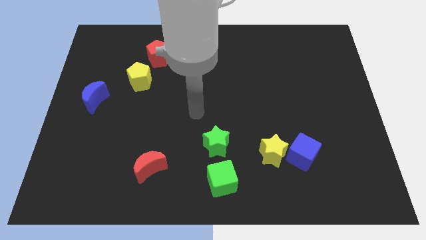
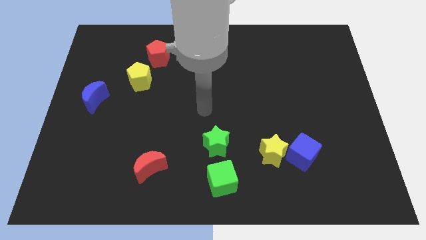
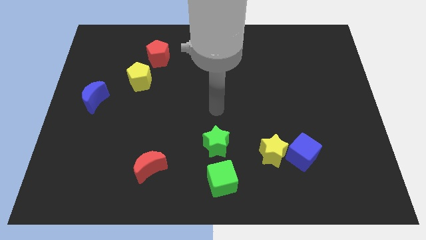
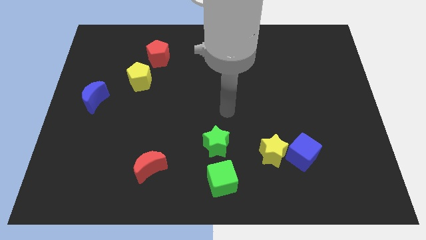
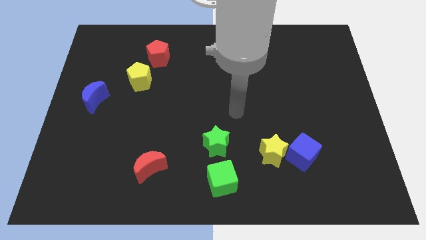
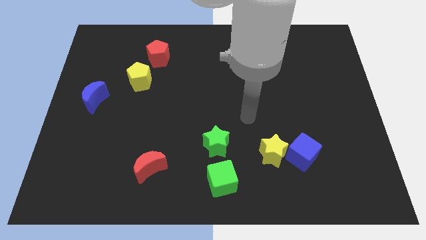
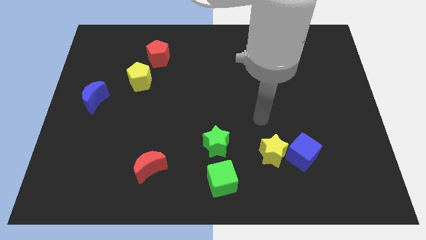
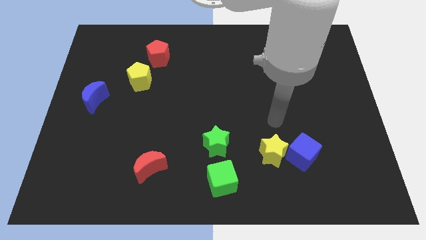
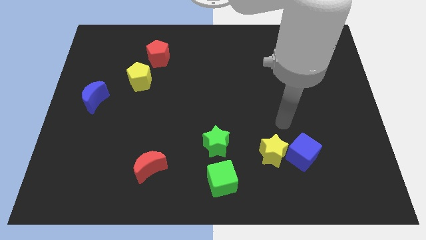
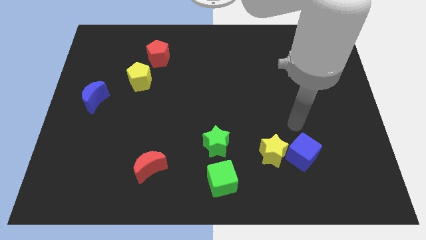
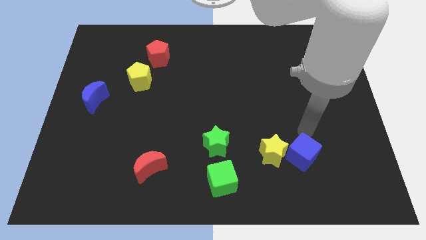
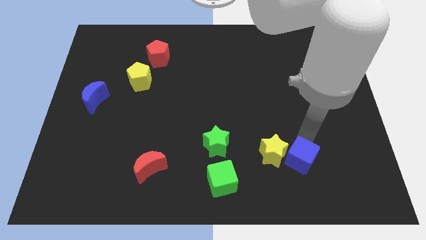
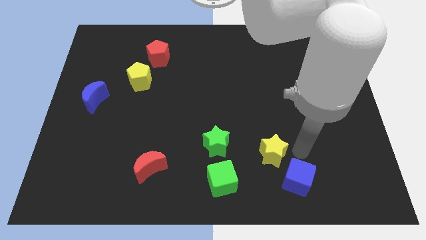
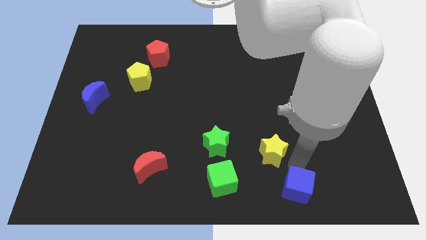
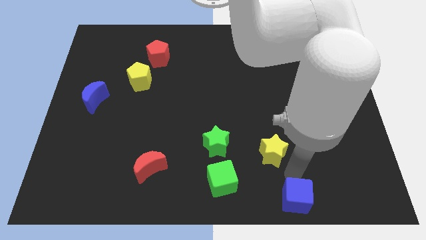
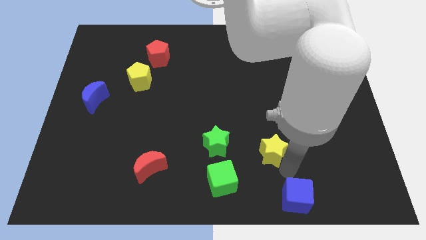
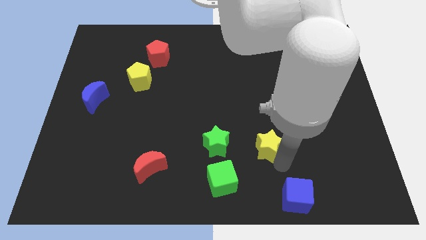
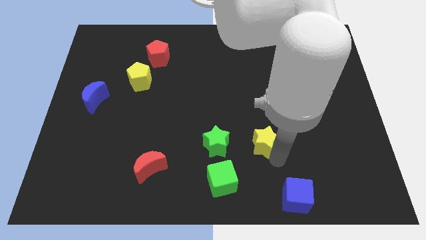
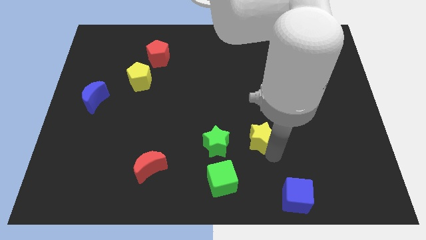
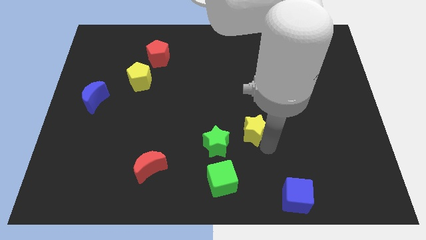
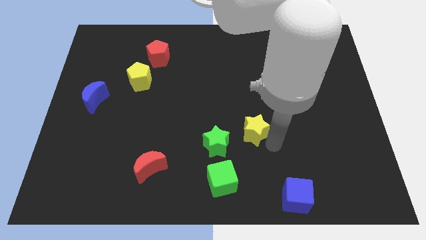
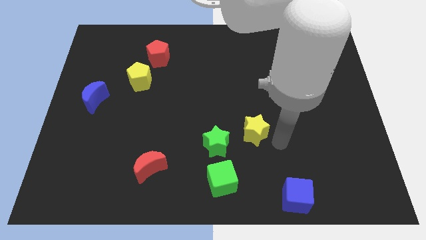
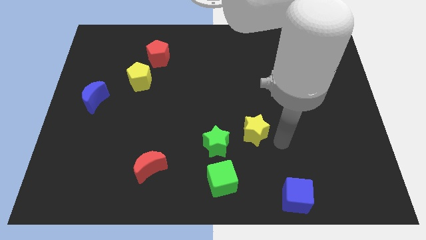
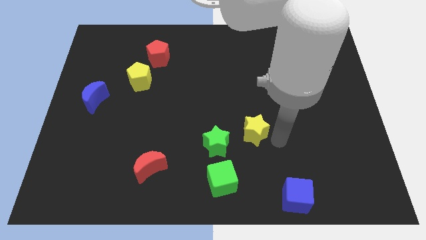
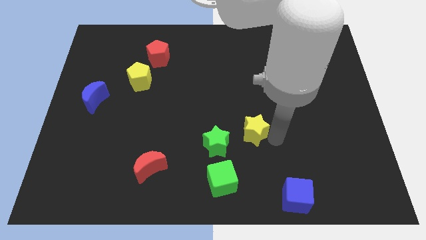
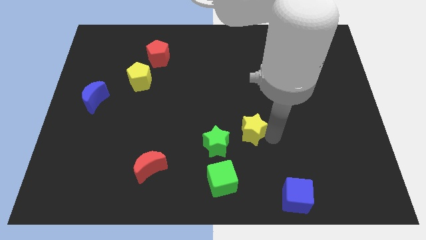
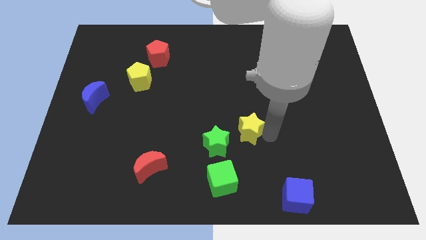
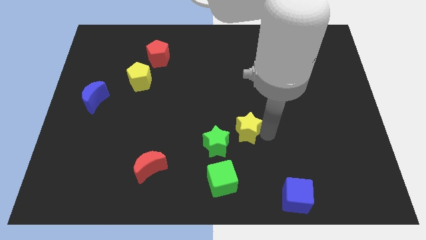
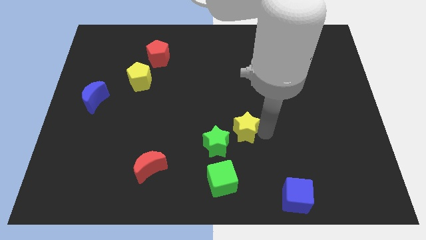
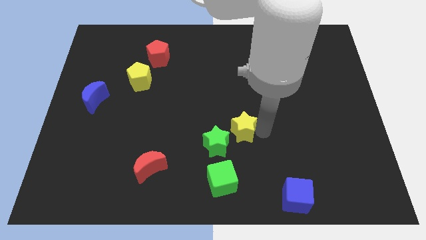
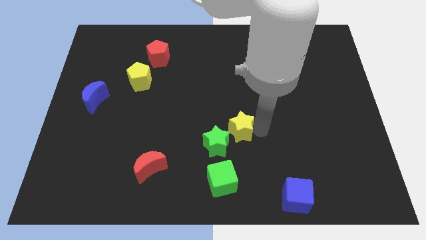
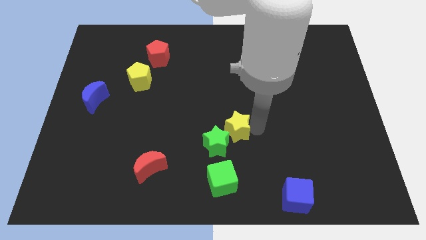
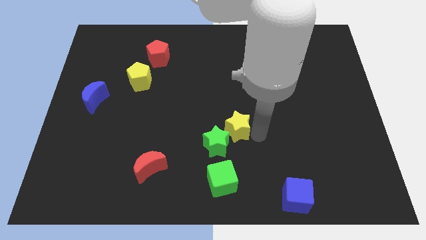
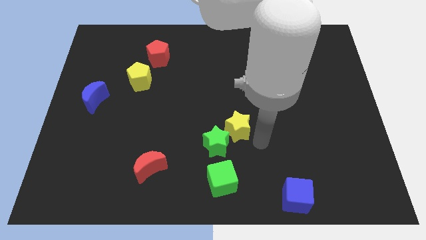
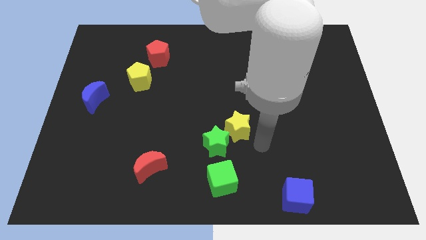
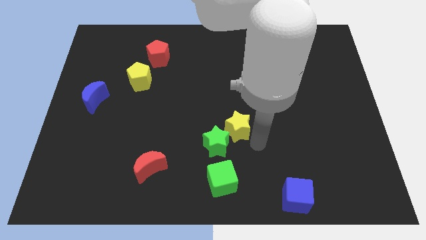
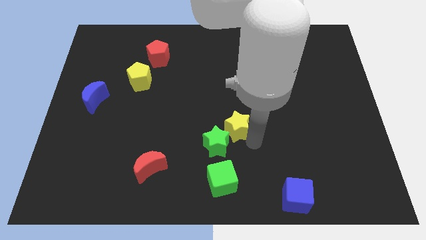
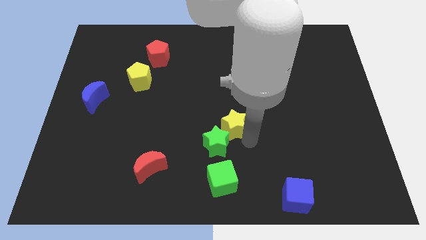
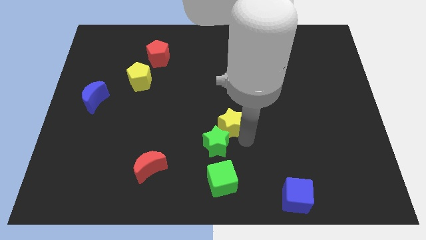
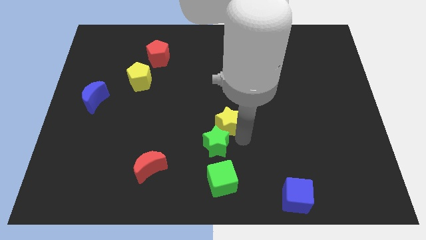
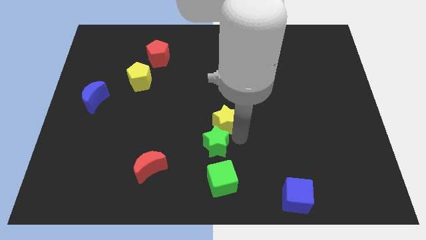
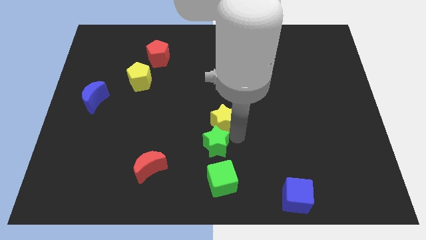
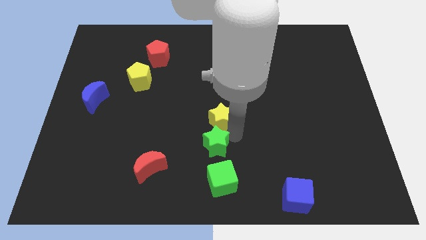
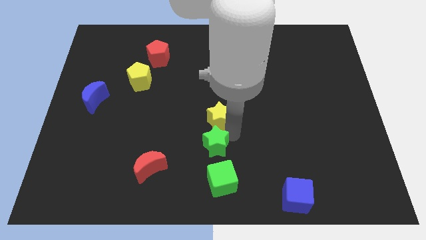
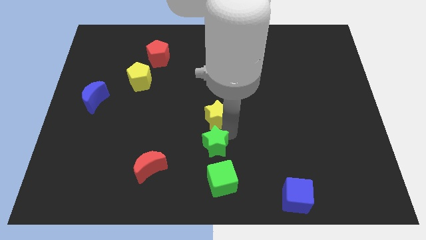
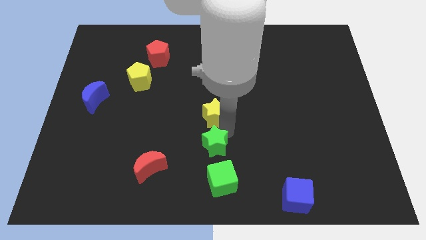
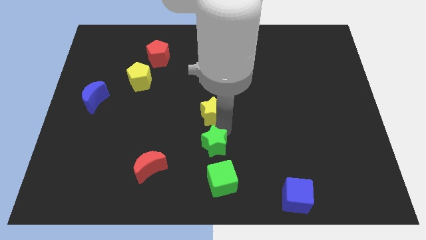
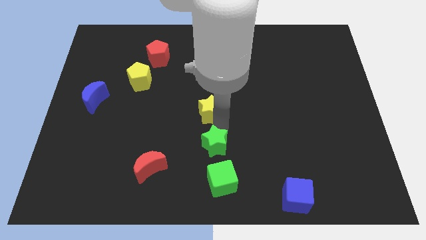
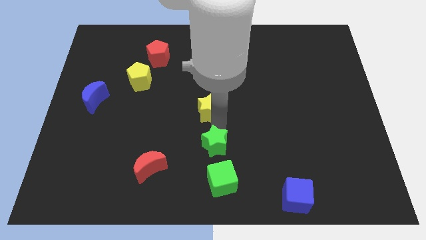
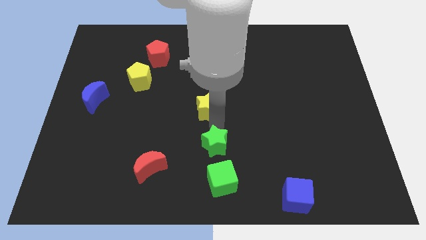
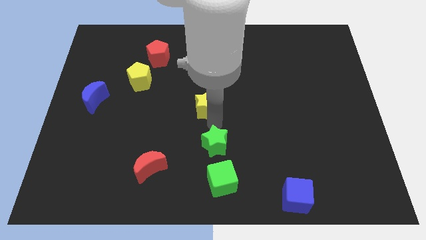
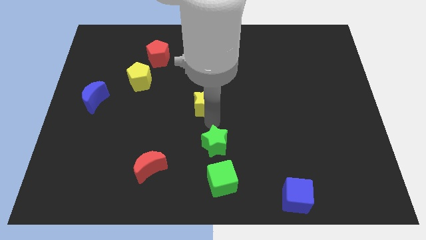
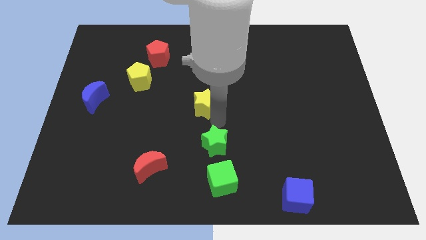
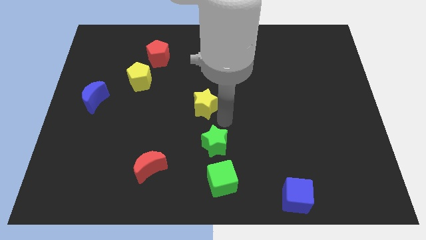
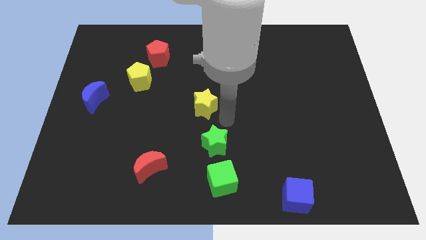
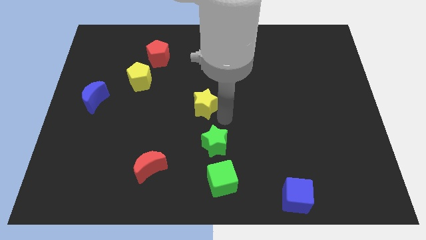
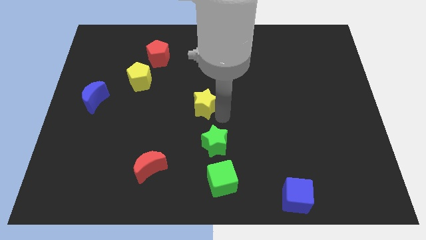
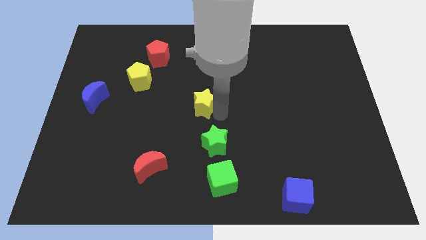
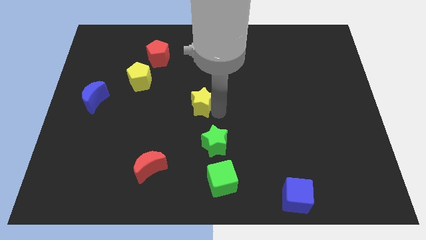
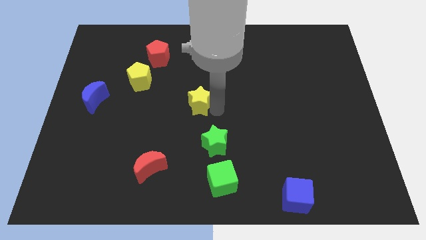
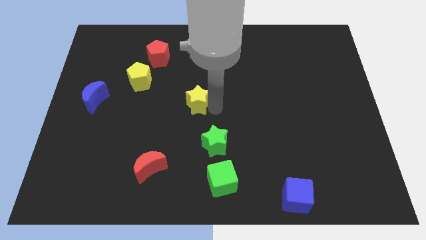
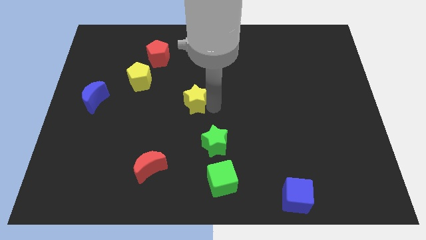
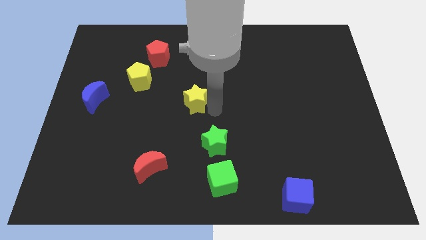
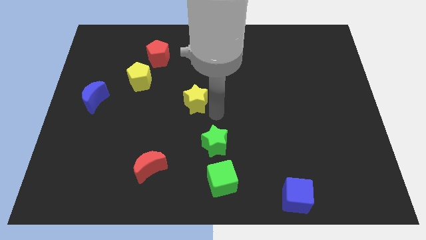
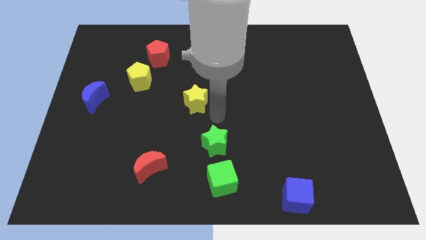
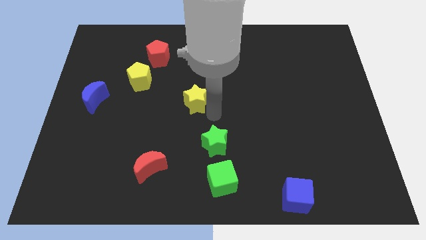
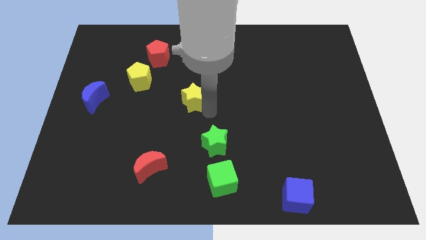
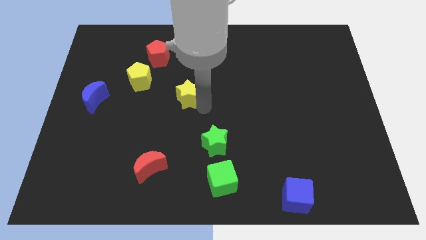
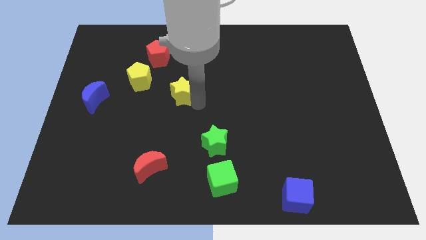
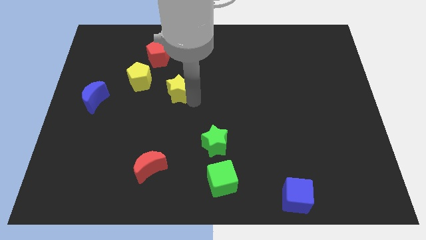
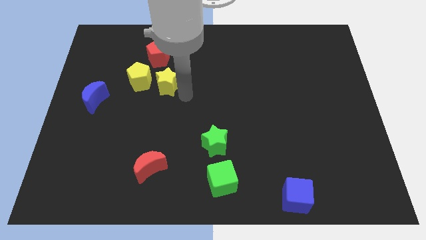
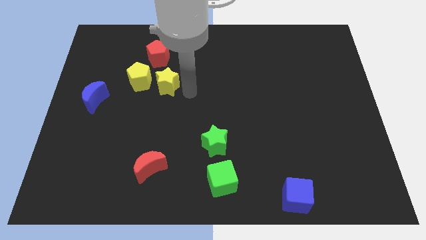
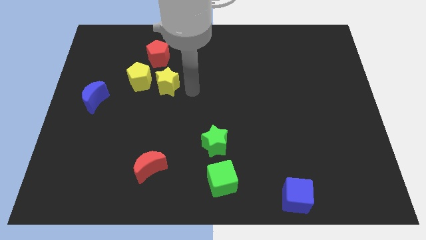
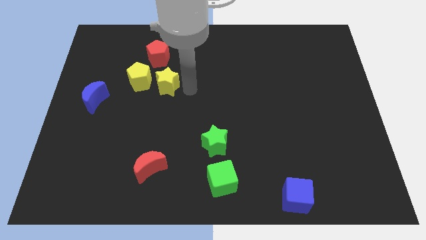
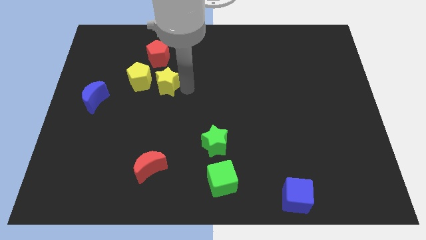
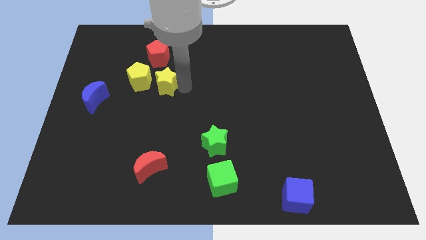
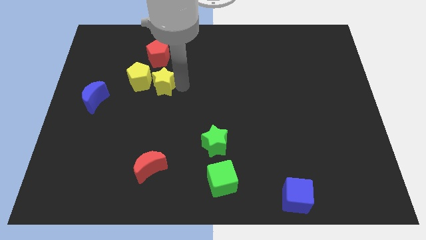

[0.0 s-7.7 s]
push the yellow star next to the yellow pentagon
